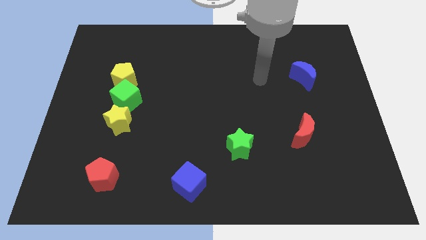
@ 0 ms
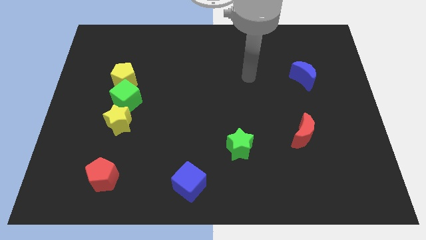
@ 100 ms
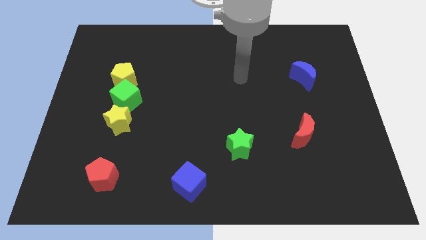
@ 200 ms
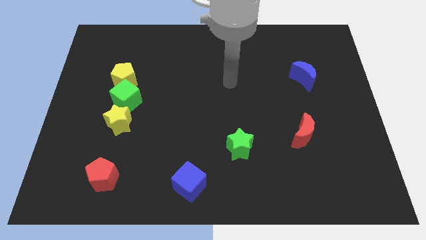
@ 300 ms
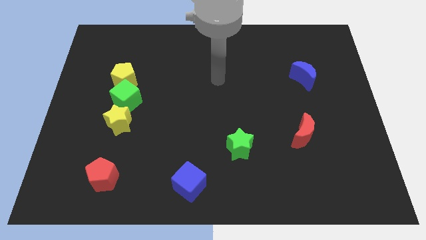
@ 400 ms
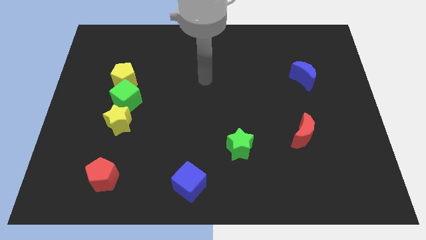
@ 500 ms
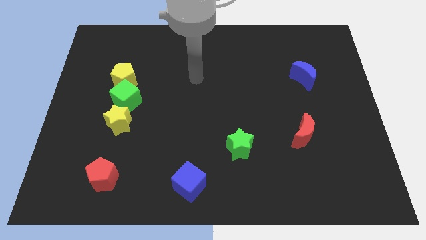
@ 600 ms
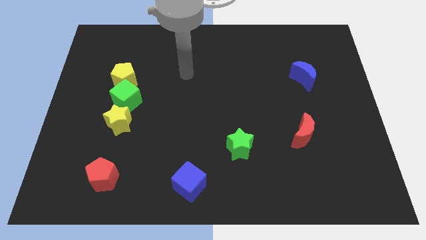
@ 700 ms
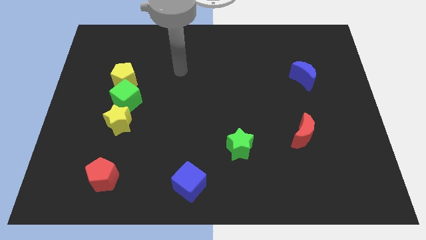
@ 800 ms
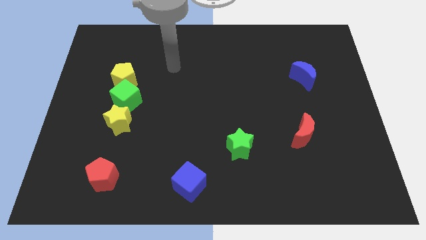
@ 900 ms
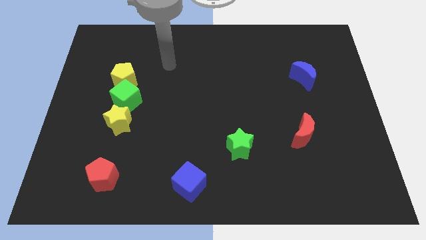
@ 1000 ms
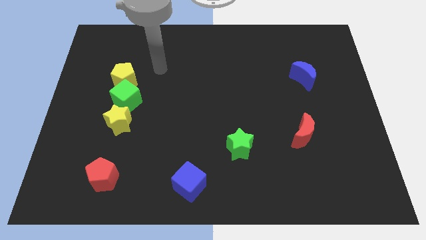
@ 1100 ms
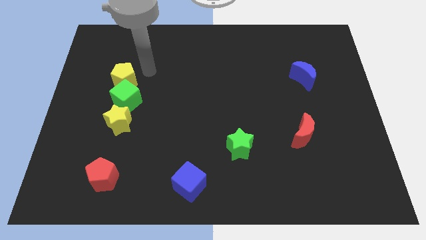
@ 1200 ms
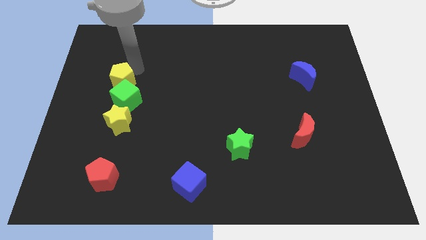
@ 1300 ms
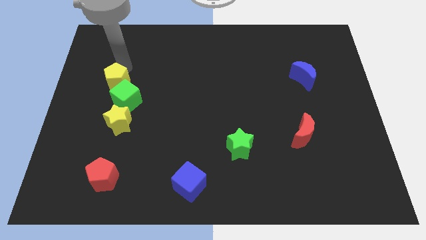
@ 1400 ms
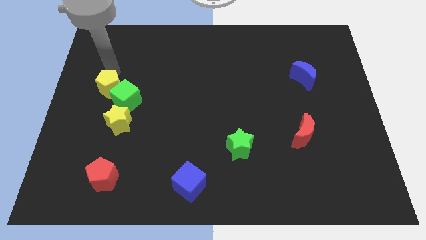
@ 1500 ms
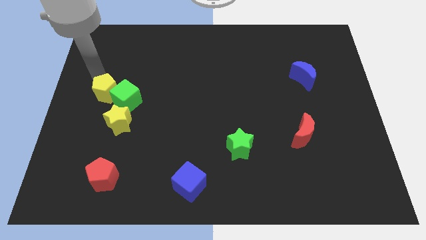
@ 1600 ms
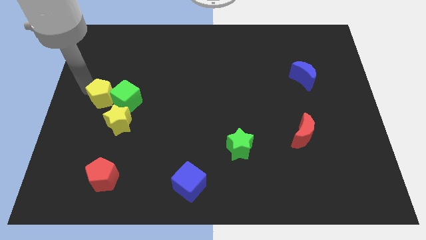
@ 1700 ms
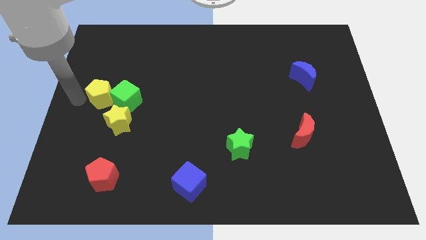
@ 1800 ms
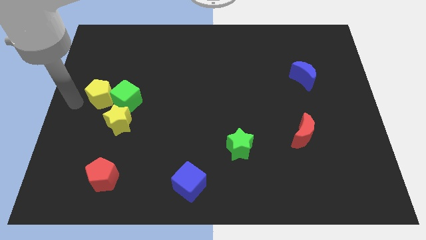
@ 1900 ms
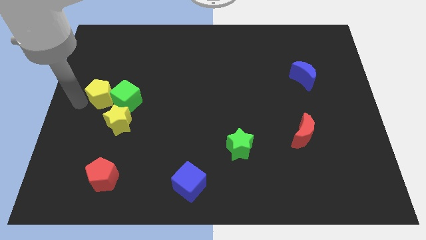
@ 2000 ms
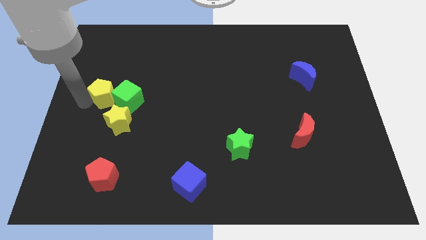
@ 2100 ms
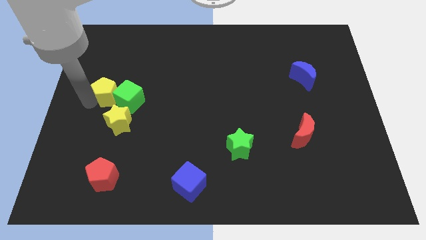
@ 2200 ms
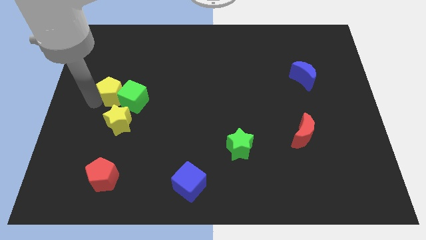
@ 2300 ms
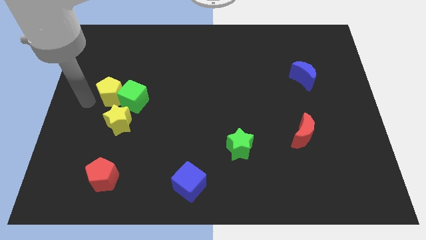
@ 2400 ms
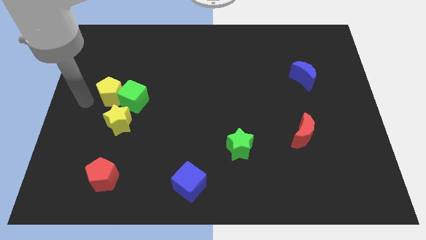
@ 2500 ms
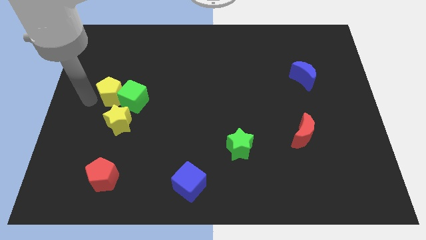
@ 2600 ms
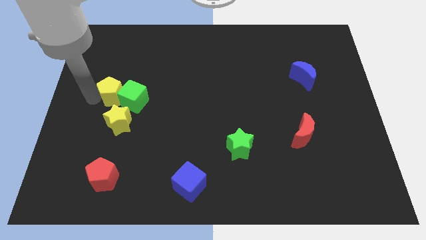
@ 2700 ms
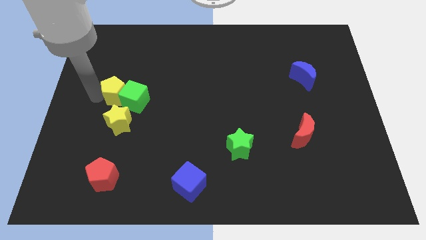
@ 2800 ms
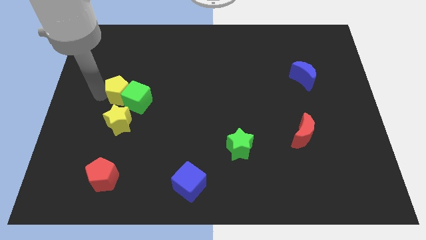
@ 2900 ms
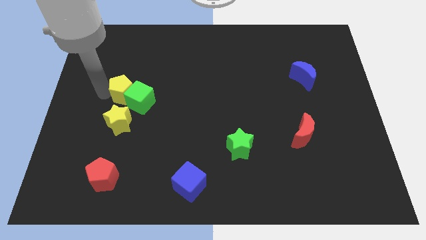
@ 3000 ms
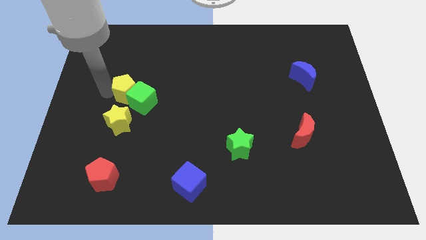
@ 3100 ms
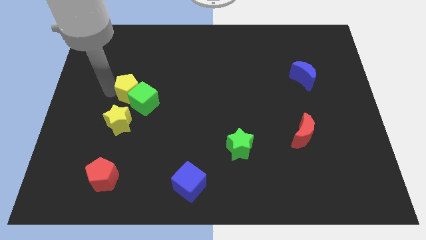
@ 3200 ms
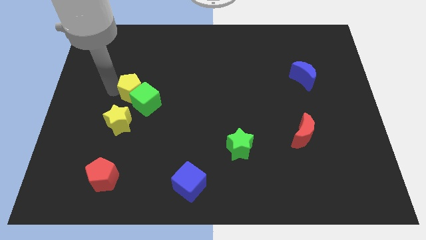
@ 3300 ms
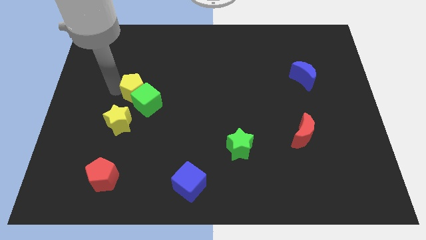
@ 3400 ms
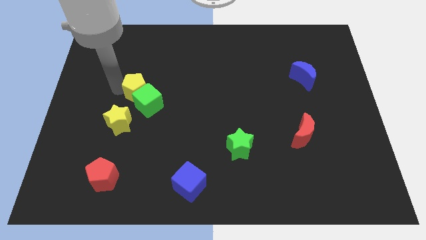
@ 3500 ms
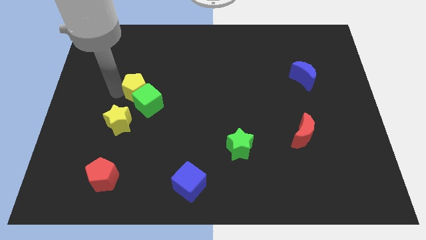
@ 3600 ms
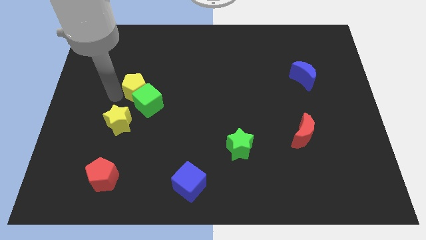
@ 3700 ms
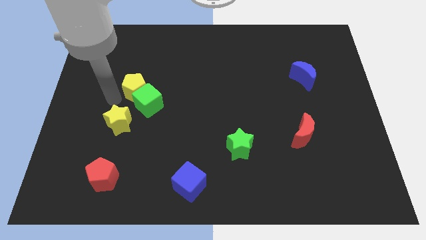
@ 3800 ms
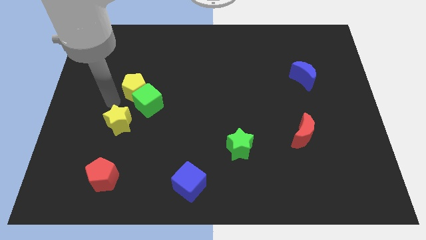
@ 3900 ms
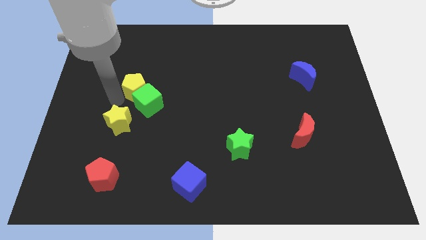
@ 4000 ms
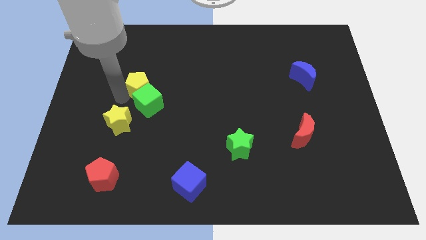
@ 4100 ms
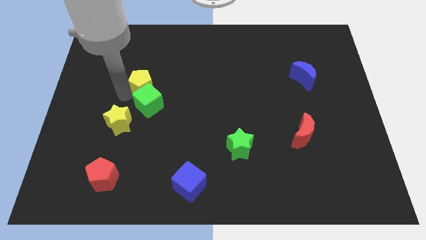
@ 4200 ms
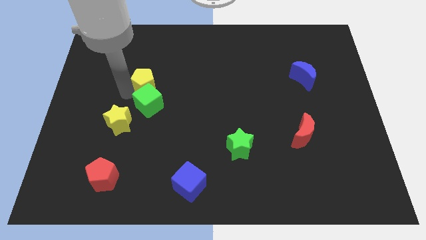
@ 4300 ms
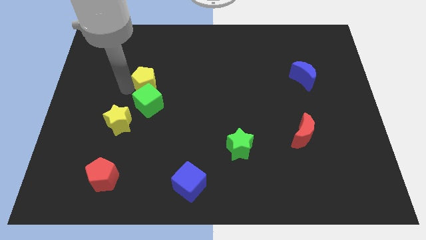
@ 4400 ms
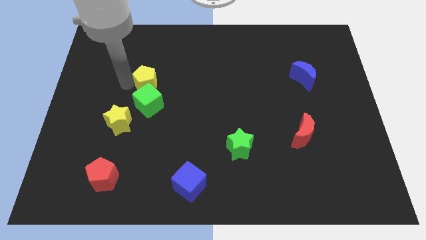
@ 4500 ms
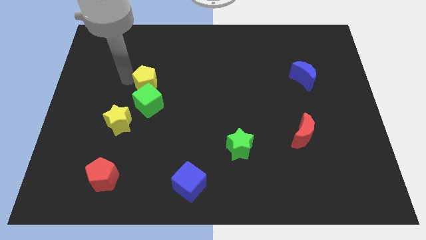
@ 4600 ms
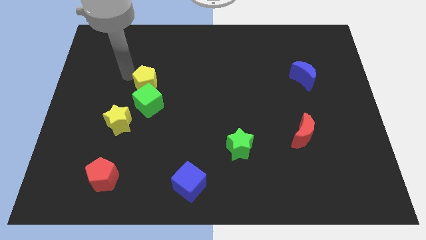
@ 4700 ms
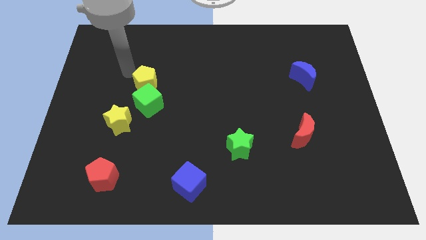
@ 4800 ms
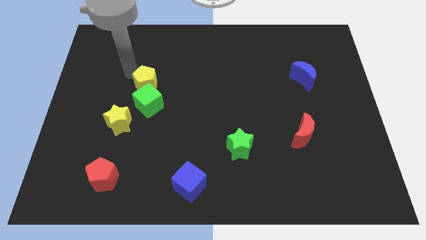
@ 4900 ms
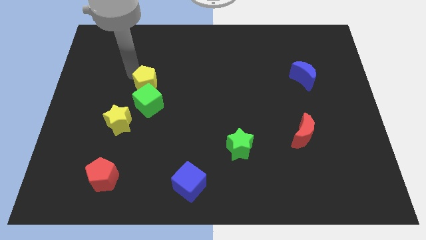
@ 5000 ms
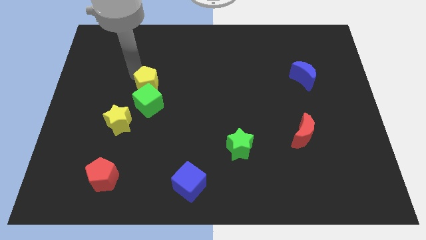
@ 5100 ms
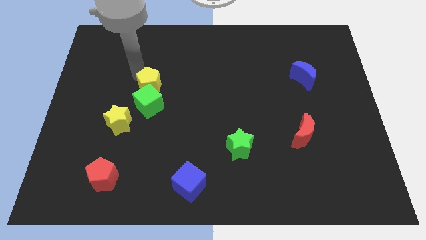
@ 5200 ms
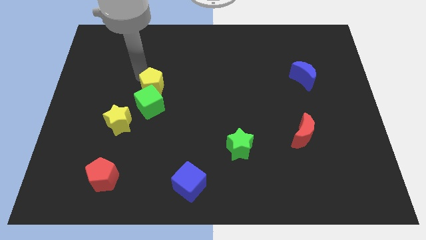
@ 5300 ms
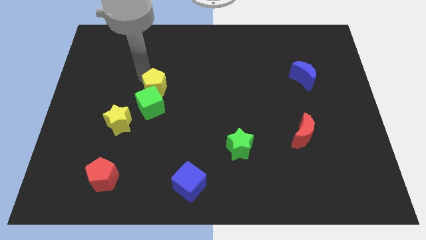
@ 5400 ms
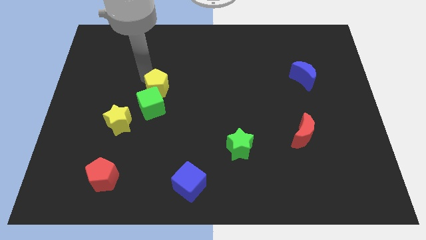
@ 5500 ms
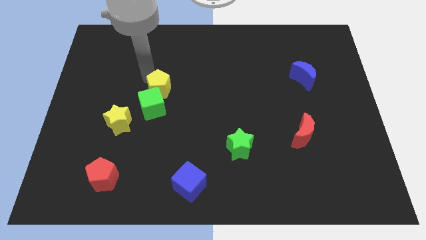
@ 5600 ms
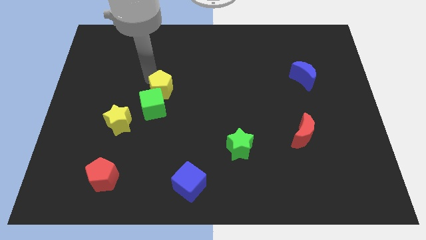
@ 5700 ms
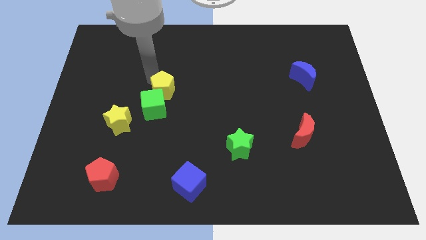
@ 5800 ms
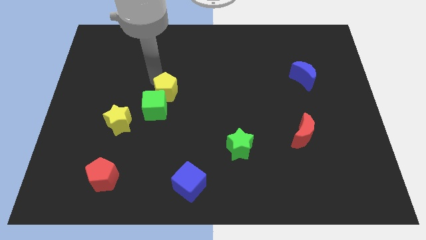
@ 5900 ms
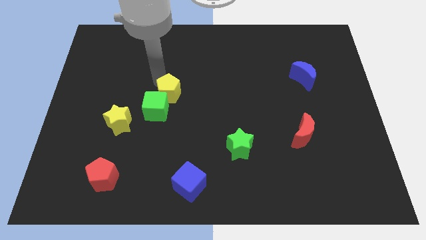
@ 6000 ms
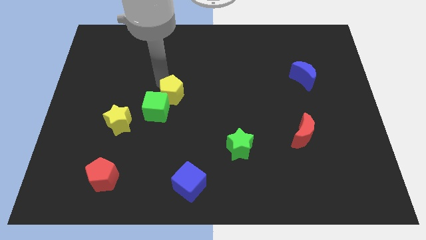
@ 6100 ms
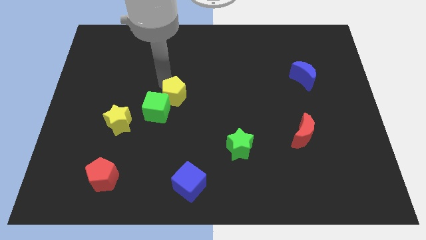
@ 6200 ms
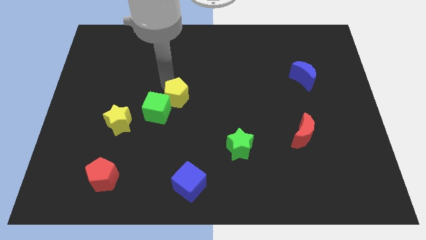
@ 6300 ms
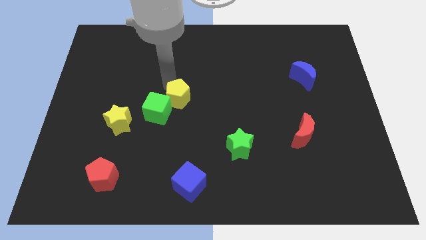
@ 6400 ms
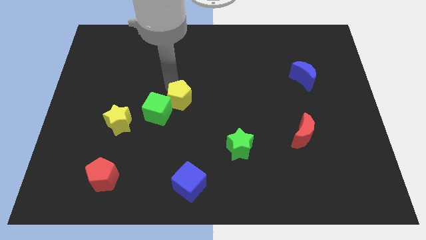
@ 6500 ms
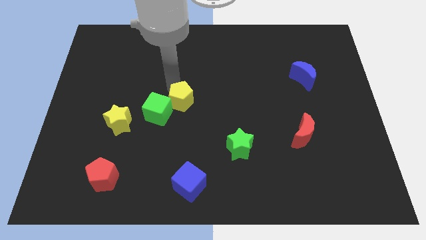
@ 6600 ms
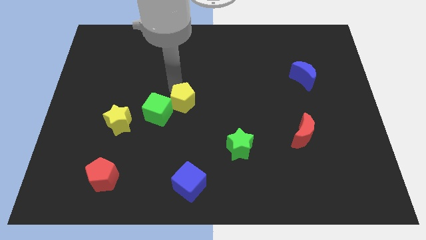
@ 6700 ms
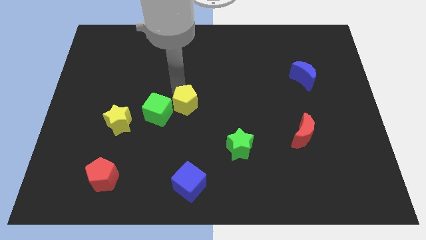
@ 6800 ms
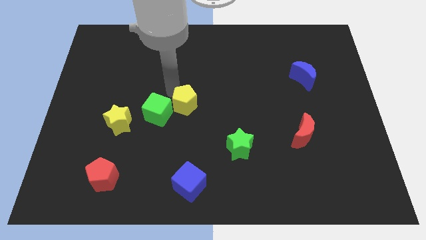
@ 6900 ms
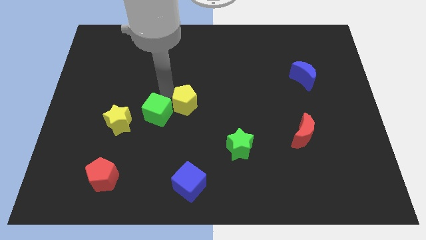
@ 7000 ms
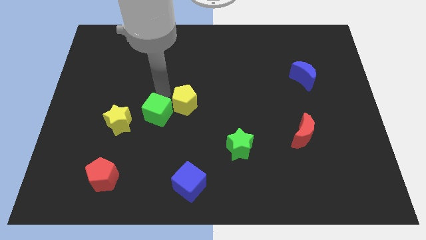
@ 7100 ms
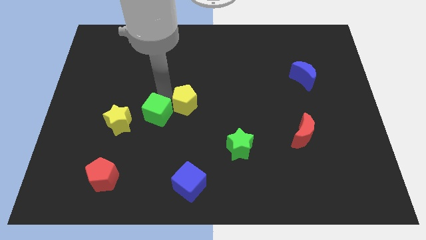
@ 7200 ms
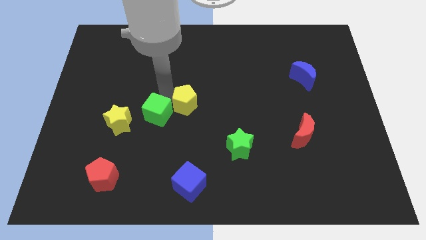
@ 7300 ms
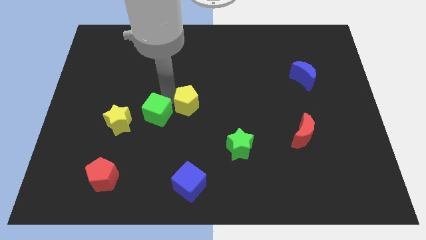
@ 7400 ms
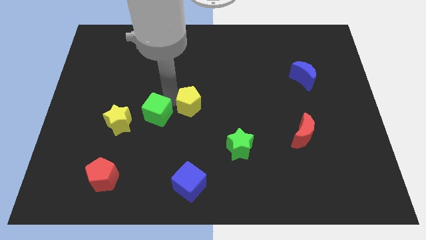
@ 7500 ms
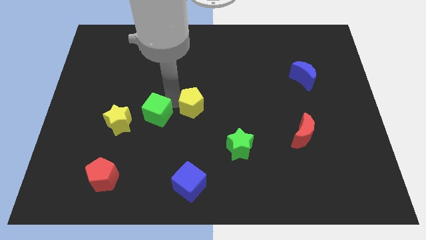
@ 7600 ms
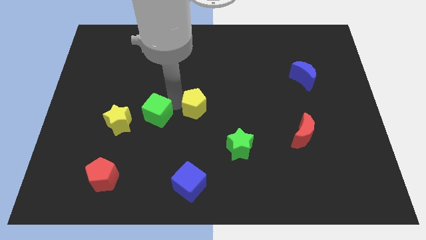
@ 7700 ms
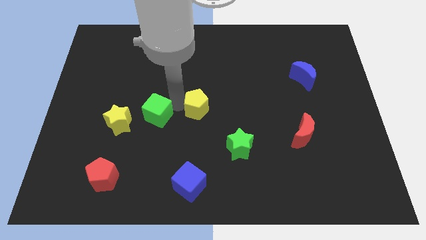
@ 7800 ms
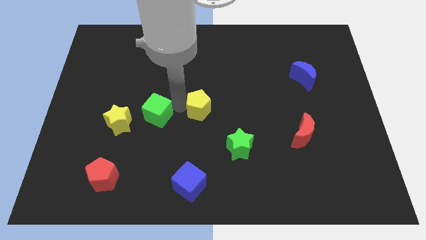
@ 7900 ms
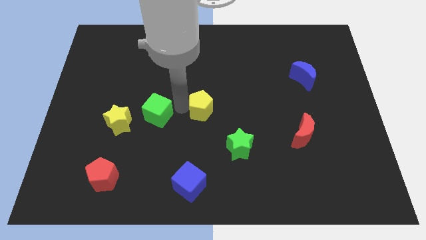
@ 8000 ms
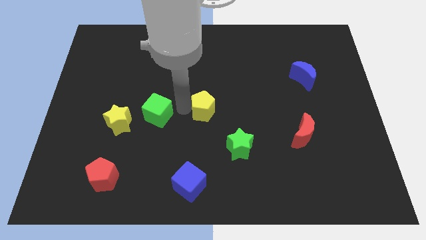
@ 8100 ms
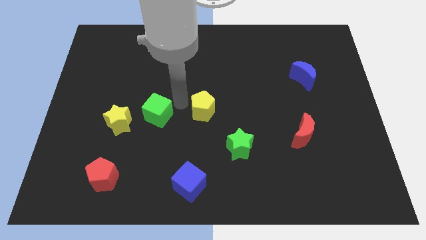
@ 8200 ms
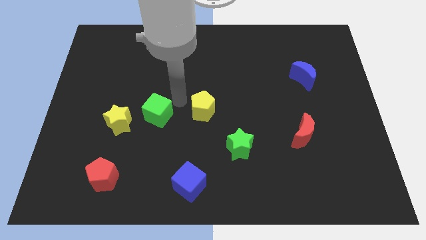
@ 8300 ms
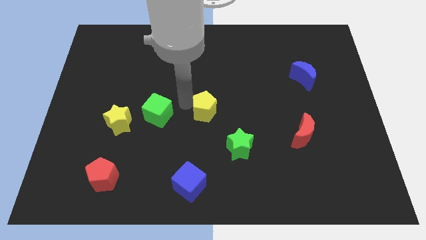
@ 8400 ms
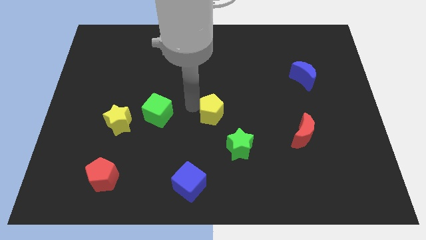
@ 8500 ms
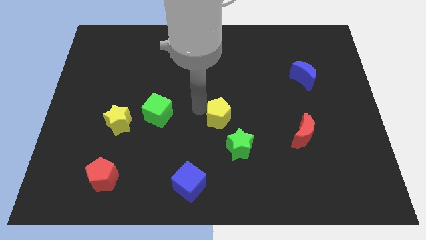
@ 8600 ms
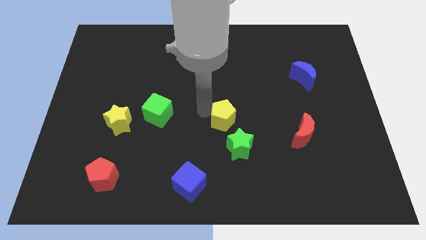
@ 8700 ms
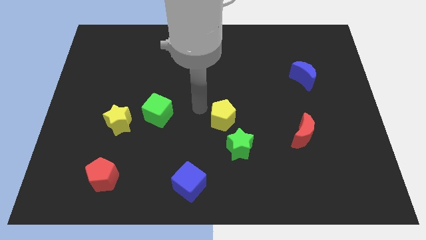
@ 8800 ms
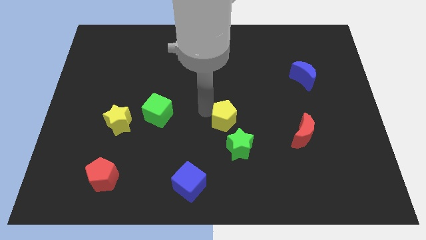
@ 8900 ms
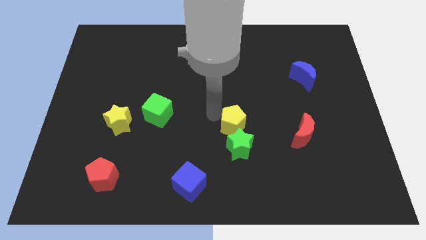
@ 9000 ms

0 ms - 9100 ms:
push the yellow pentagon to the left side of the red moon
